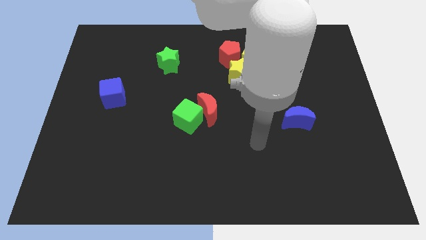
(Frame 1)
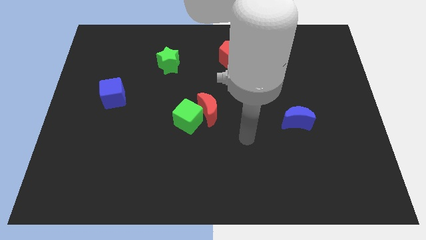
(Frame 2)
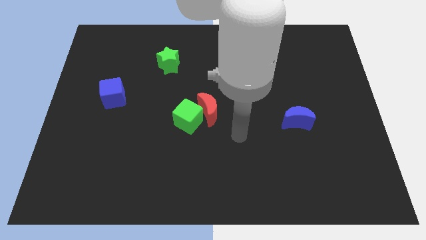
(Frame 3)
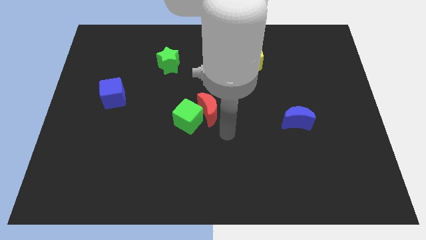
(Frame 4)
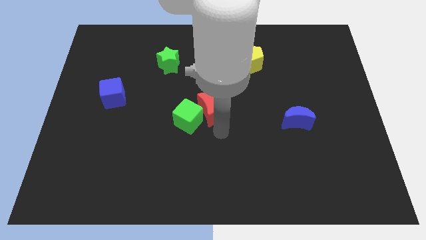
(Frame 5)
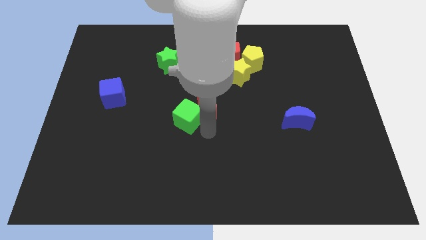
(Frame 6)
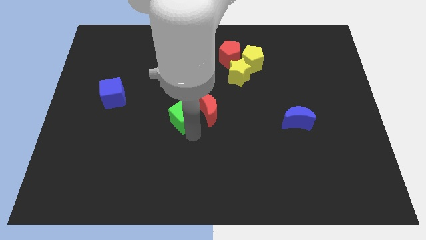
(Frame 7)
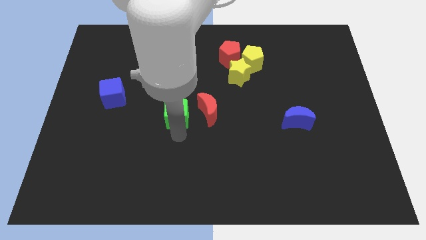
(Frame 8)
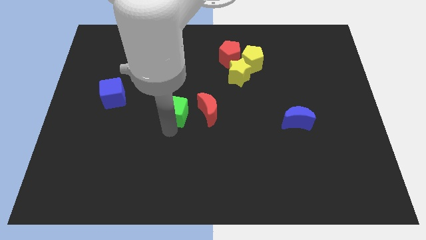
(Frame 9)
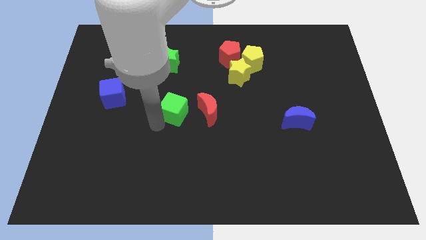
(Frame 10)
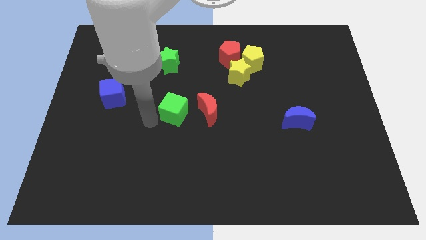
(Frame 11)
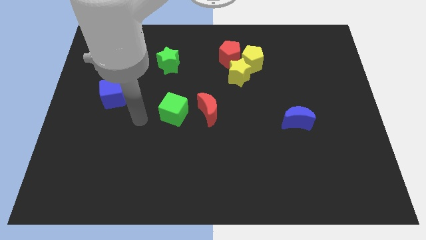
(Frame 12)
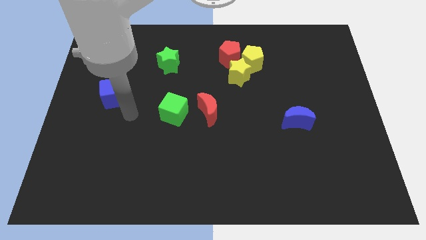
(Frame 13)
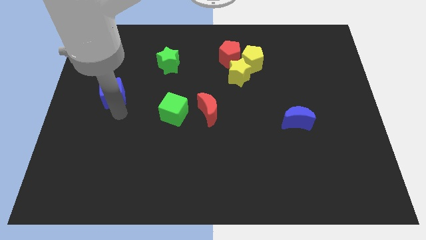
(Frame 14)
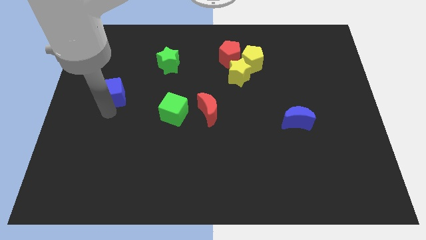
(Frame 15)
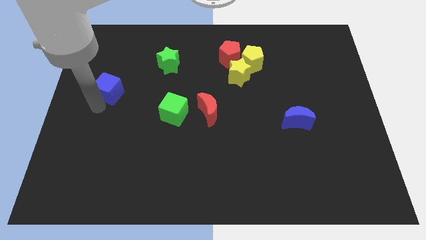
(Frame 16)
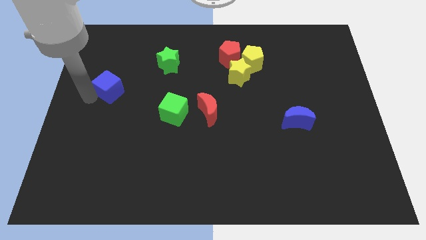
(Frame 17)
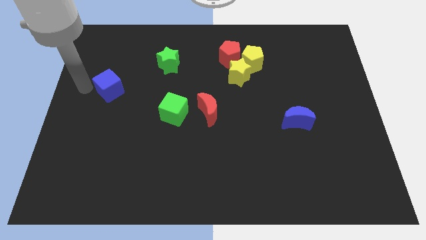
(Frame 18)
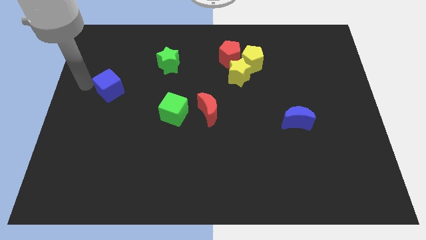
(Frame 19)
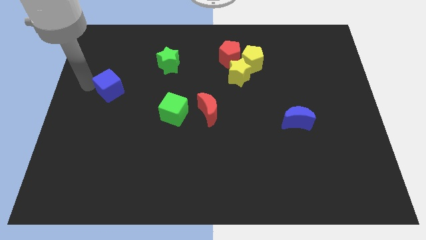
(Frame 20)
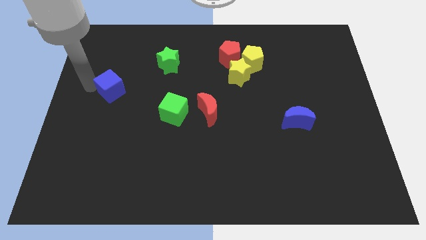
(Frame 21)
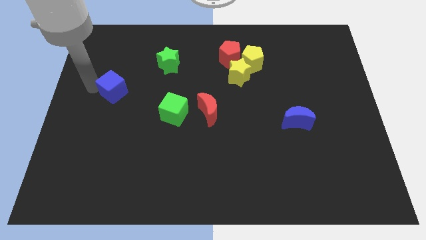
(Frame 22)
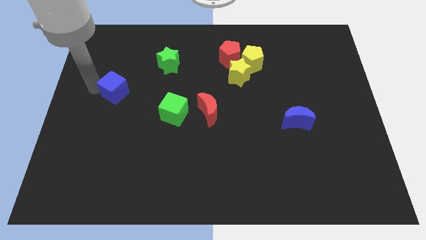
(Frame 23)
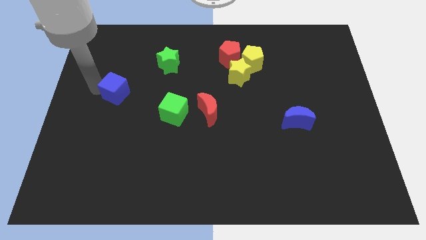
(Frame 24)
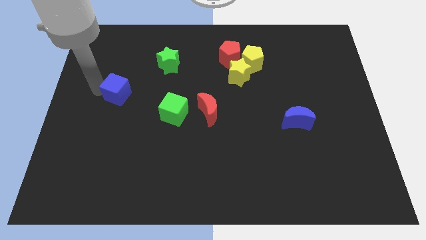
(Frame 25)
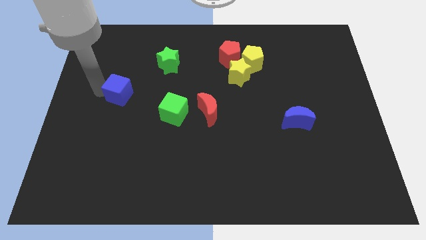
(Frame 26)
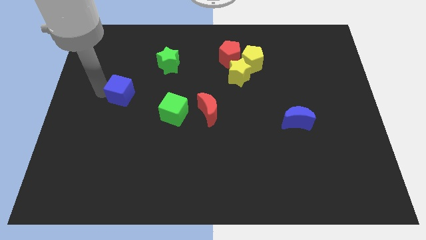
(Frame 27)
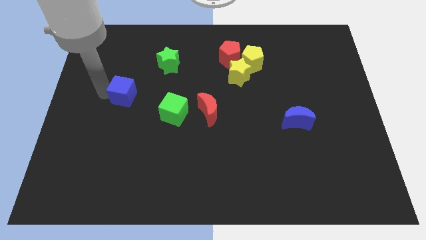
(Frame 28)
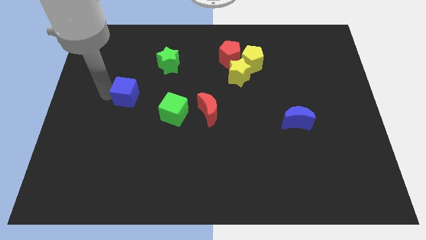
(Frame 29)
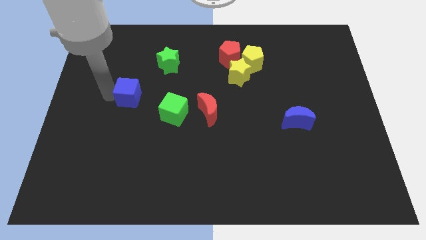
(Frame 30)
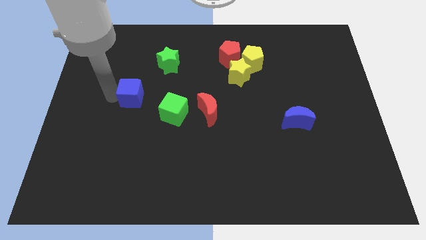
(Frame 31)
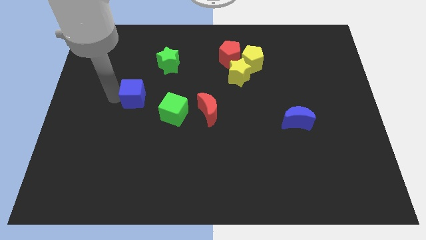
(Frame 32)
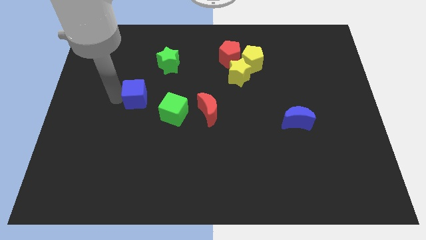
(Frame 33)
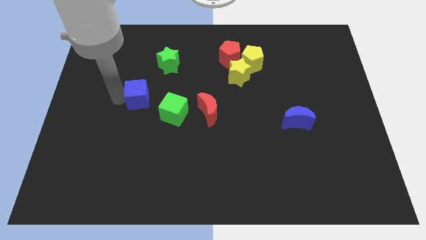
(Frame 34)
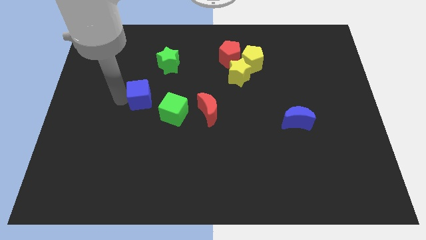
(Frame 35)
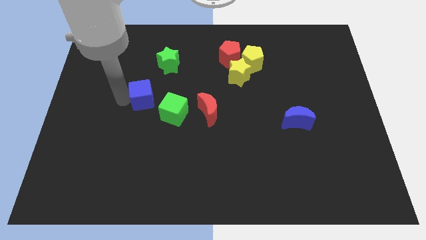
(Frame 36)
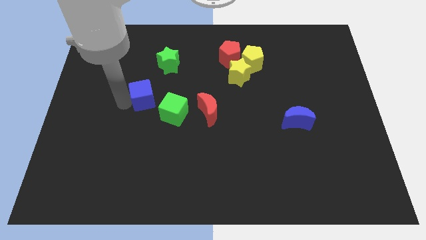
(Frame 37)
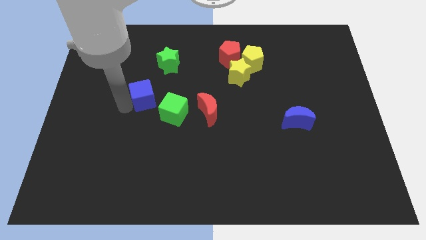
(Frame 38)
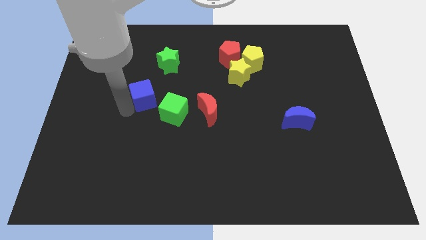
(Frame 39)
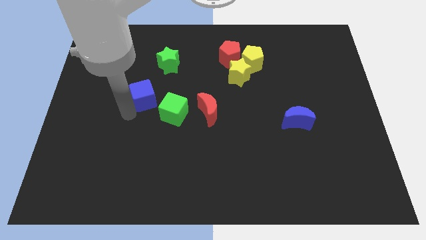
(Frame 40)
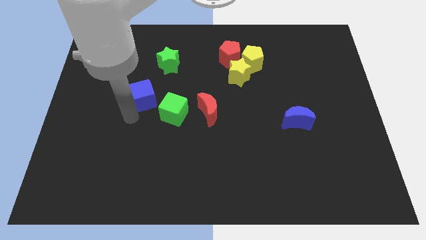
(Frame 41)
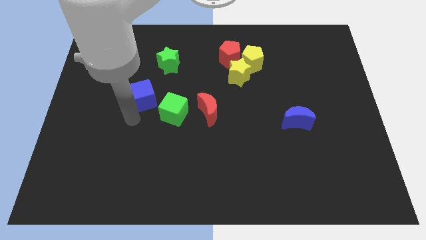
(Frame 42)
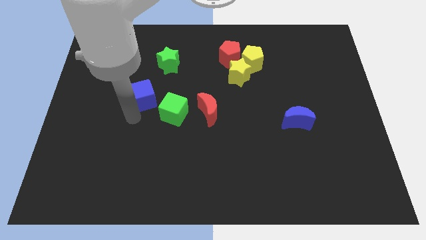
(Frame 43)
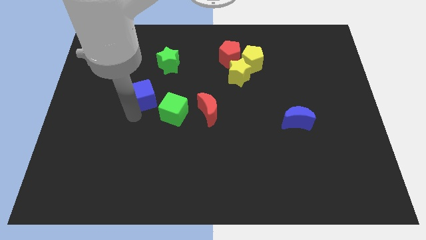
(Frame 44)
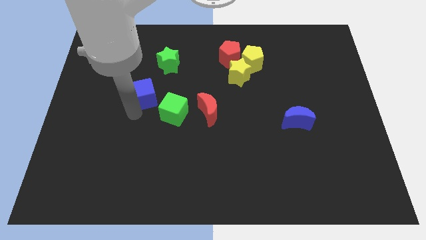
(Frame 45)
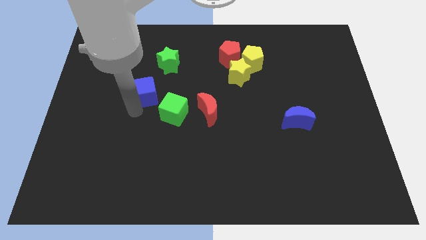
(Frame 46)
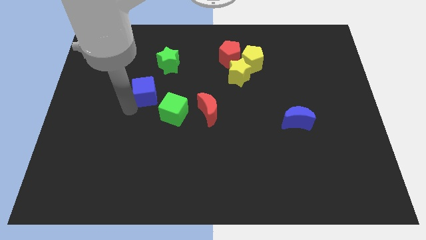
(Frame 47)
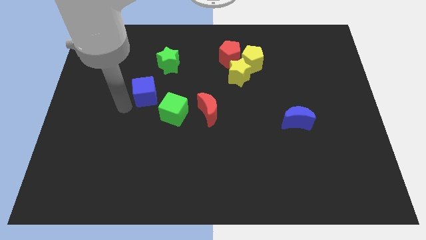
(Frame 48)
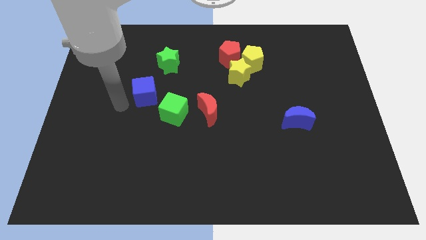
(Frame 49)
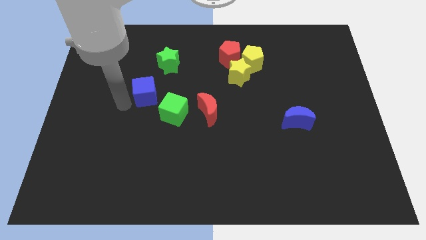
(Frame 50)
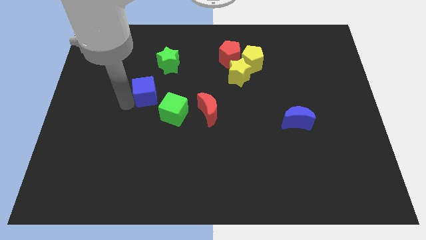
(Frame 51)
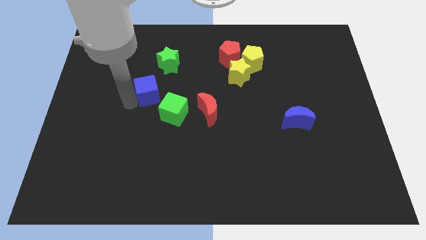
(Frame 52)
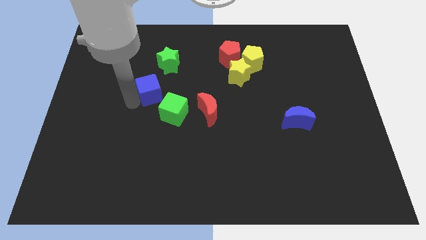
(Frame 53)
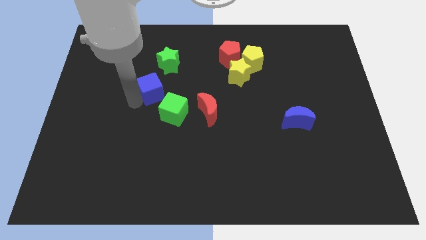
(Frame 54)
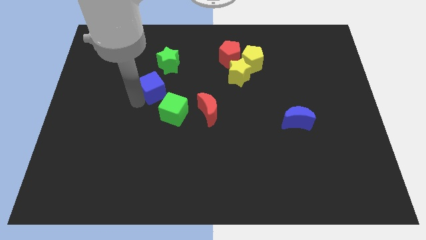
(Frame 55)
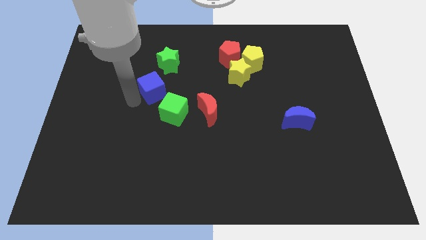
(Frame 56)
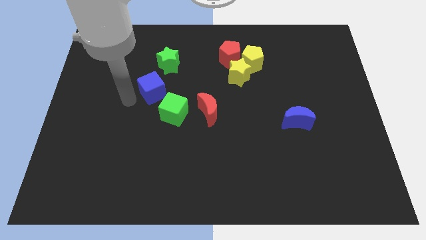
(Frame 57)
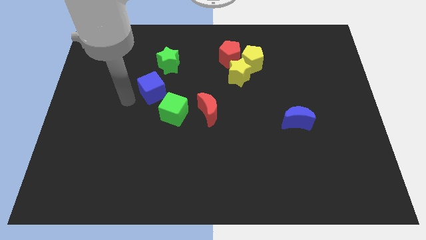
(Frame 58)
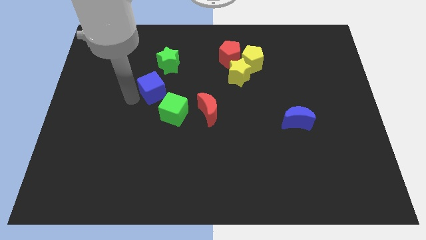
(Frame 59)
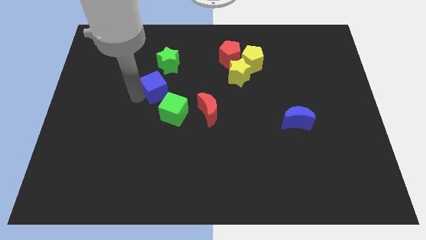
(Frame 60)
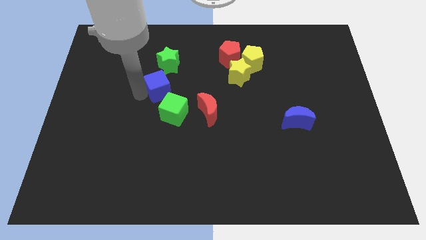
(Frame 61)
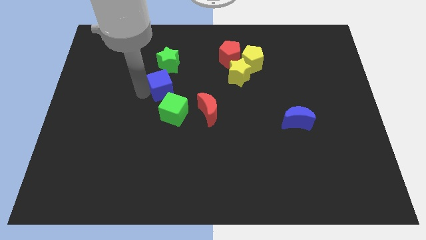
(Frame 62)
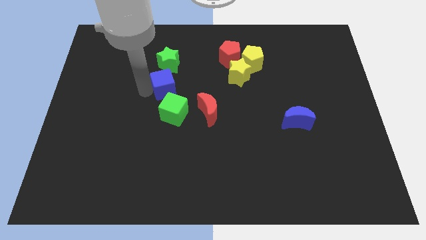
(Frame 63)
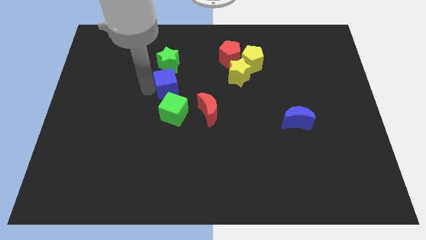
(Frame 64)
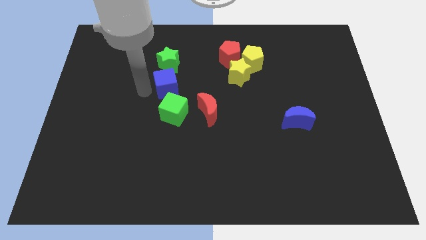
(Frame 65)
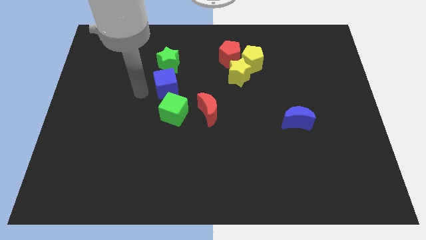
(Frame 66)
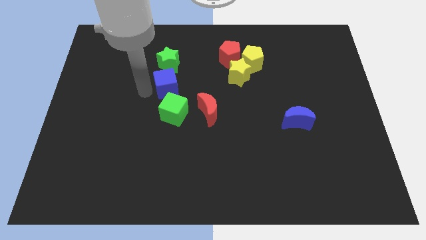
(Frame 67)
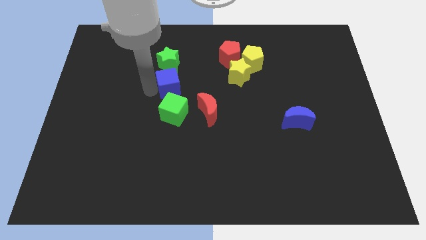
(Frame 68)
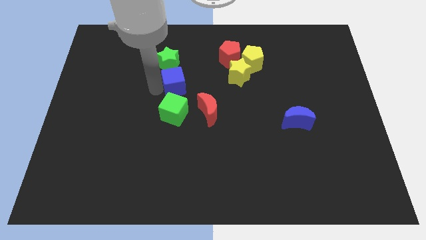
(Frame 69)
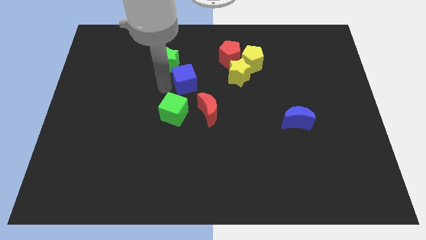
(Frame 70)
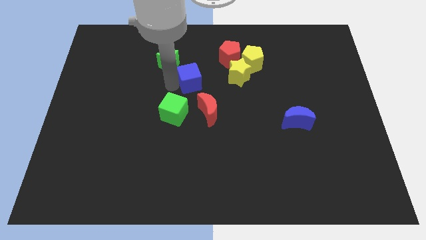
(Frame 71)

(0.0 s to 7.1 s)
put the blue cube to the top side of the red moon

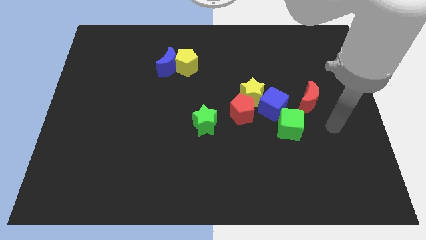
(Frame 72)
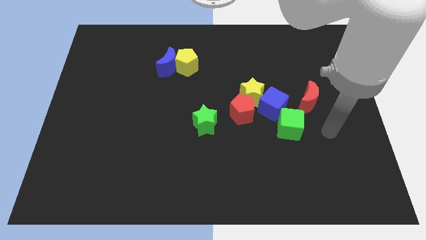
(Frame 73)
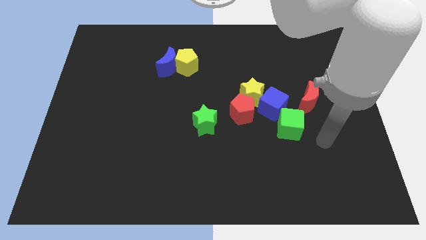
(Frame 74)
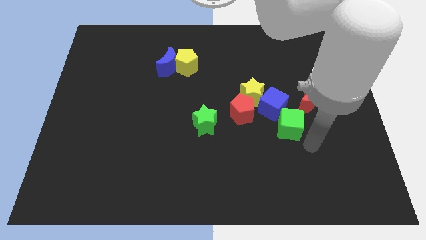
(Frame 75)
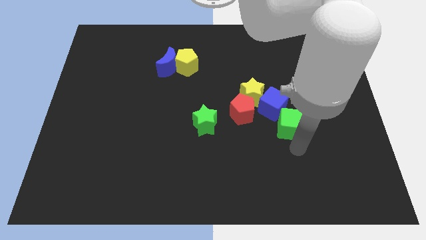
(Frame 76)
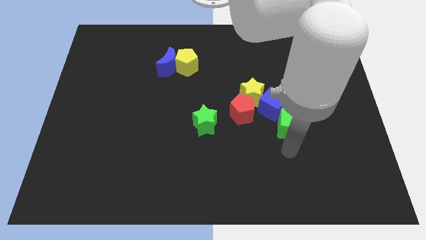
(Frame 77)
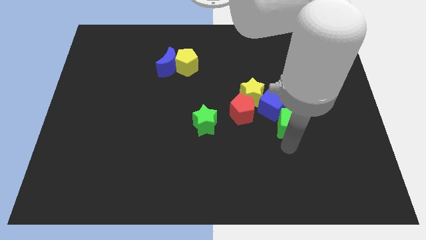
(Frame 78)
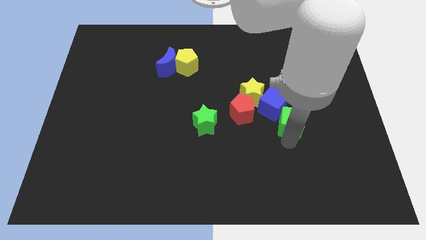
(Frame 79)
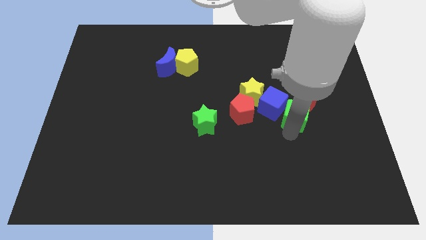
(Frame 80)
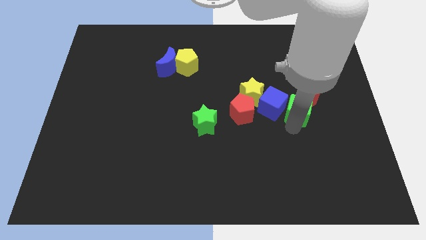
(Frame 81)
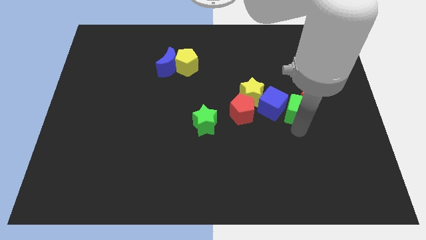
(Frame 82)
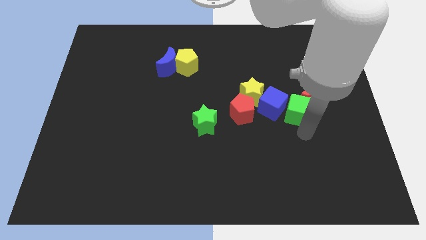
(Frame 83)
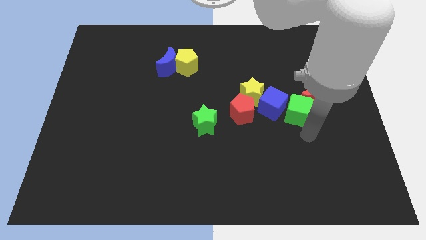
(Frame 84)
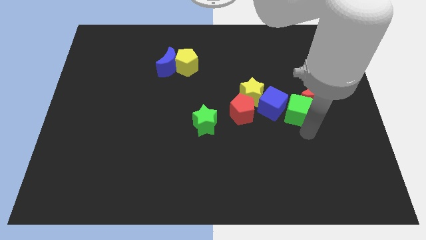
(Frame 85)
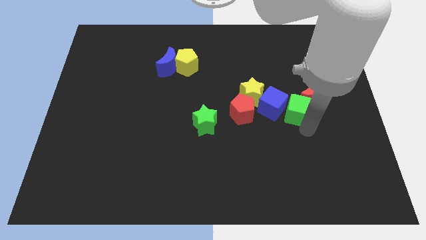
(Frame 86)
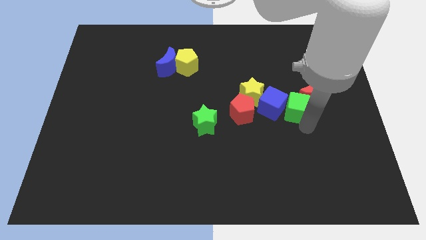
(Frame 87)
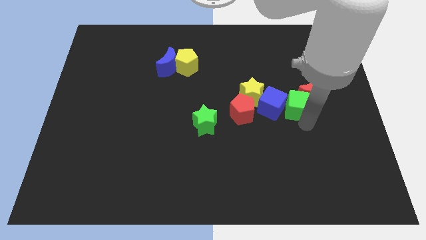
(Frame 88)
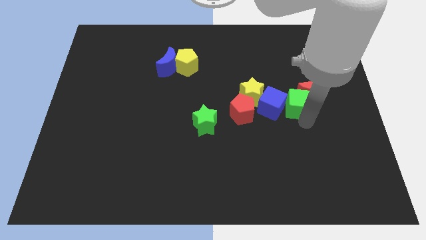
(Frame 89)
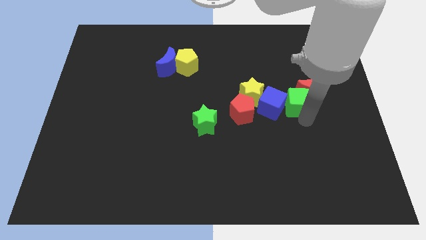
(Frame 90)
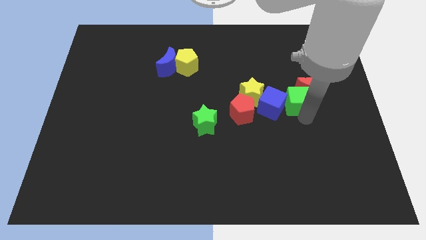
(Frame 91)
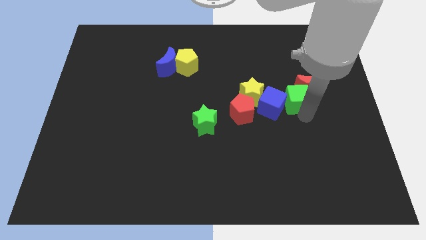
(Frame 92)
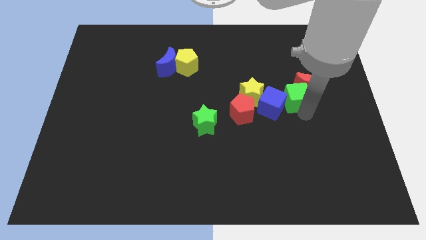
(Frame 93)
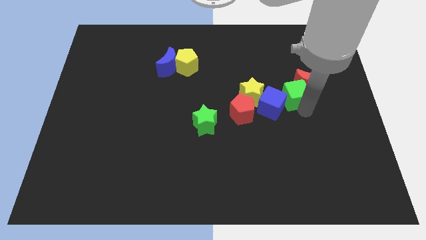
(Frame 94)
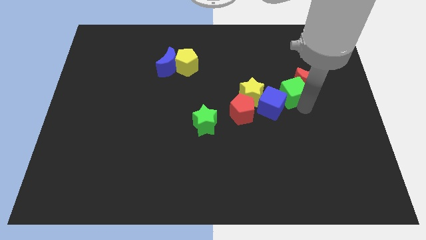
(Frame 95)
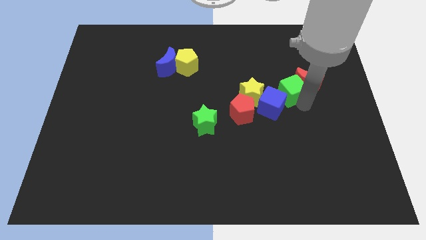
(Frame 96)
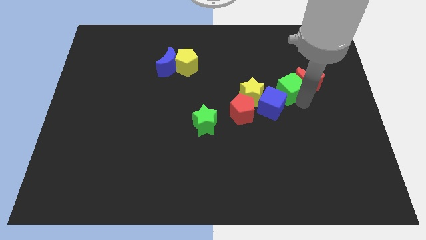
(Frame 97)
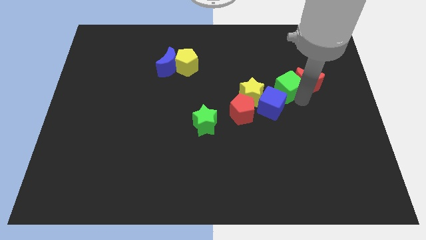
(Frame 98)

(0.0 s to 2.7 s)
push the green cube to the top right of the yellow star
